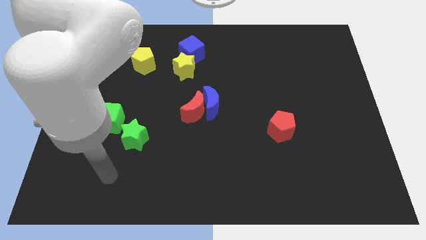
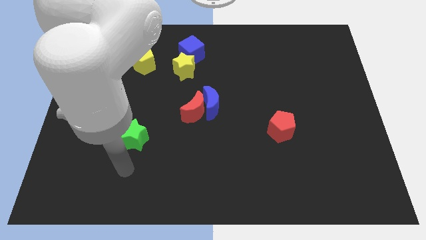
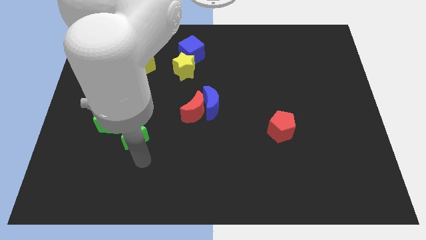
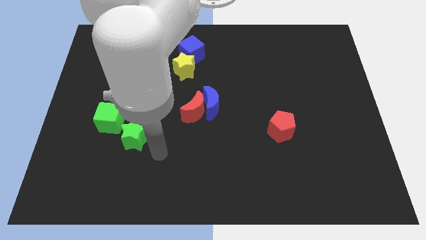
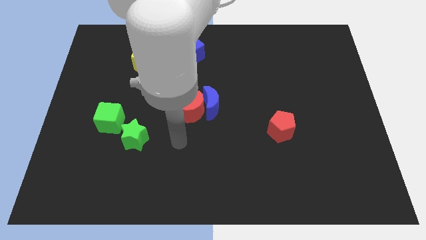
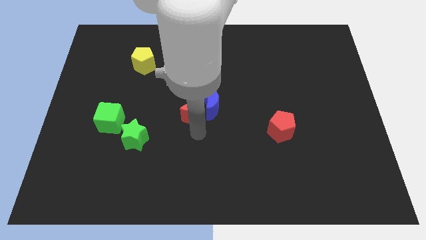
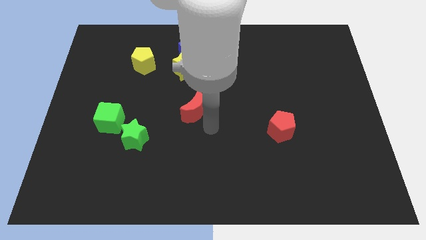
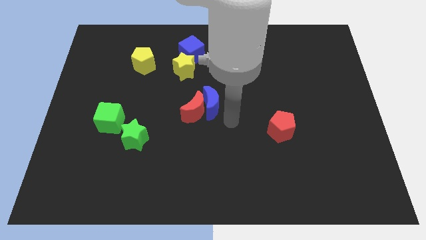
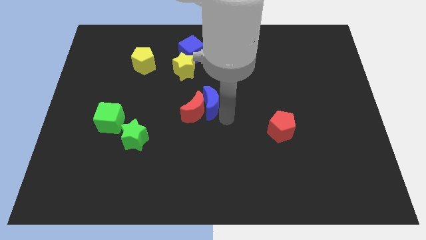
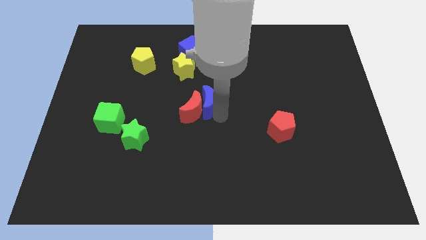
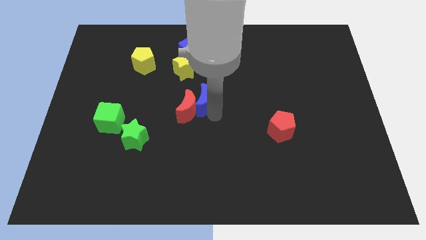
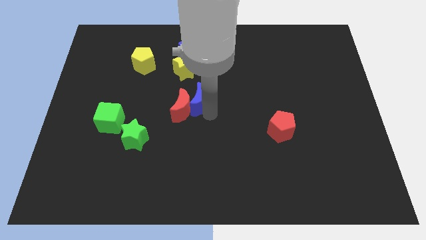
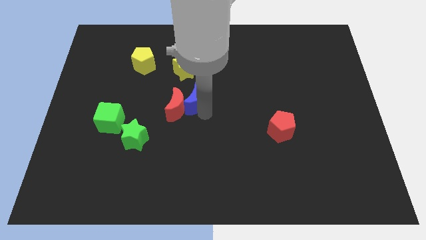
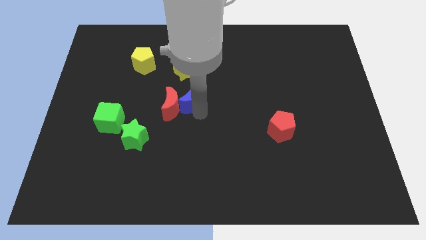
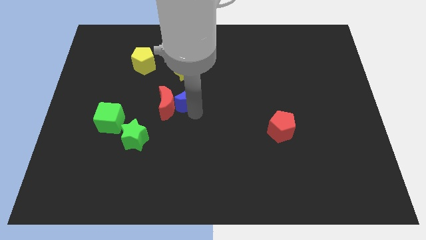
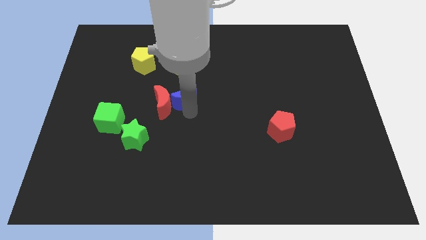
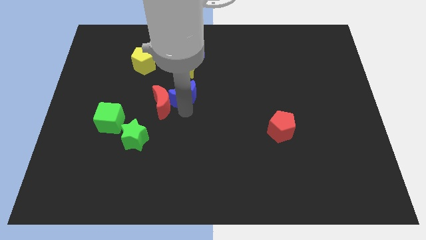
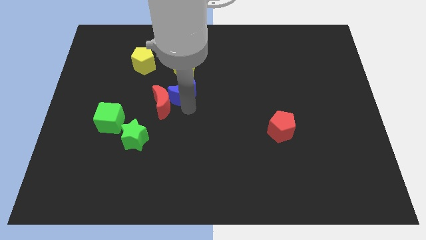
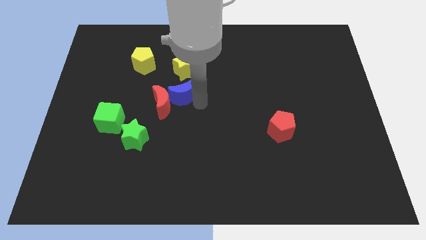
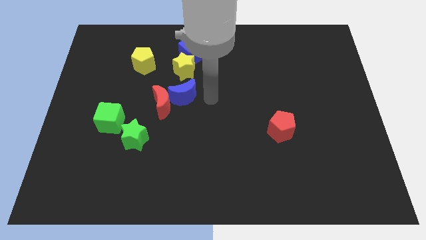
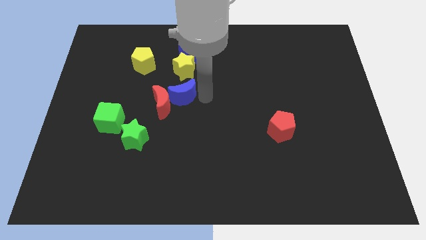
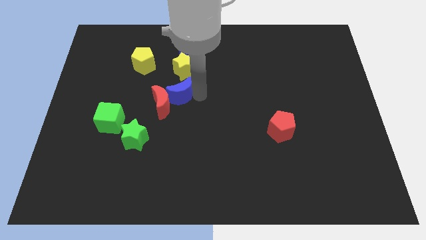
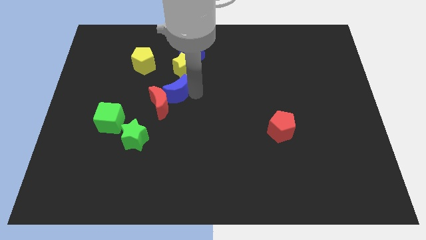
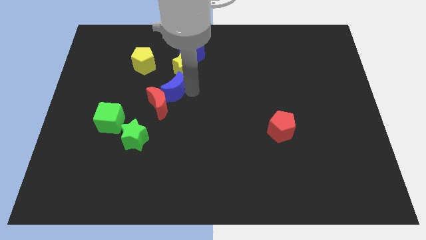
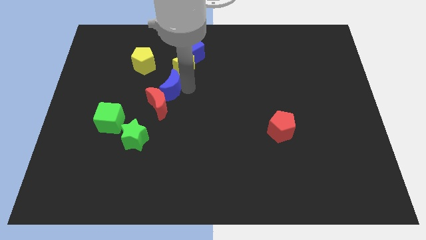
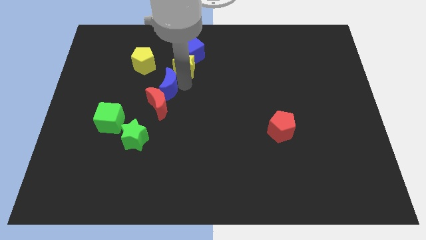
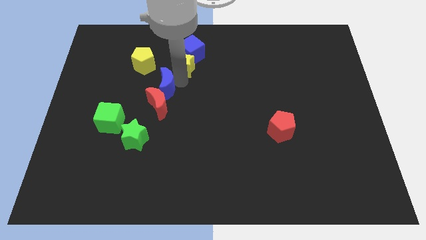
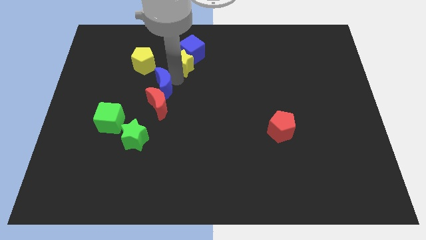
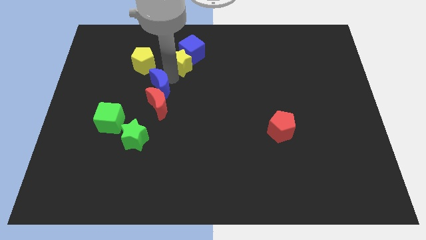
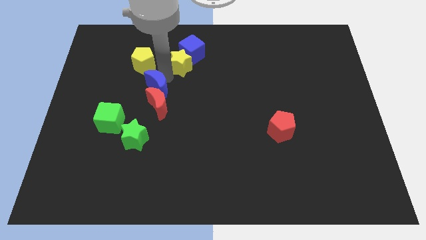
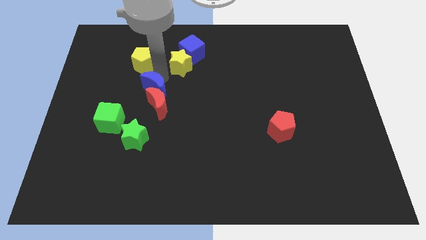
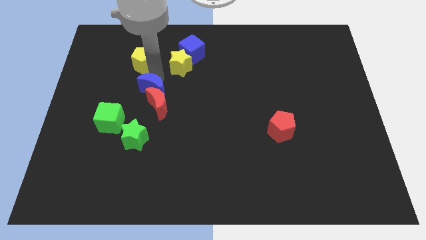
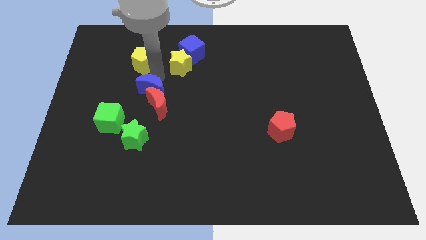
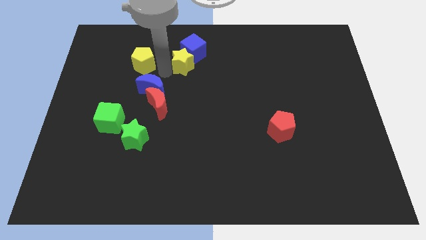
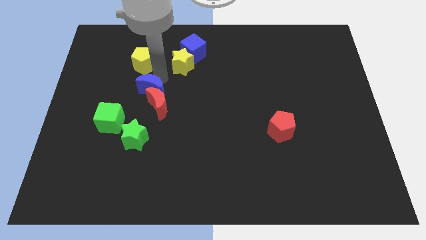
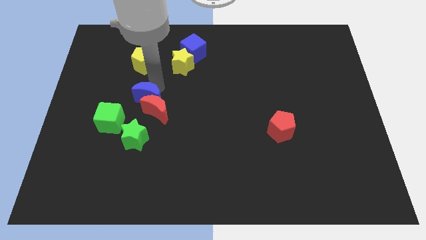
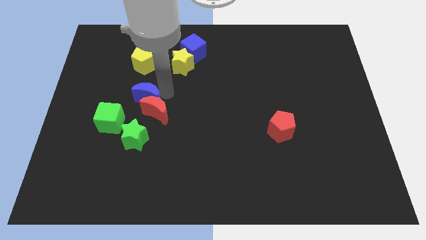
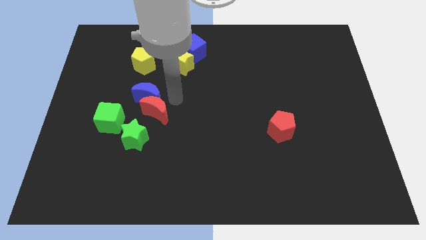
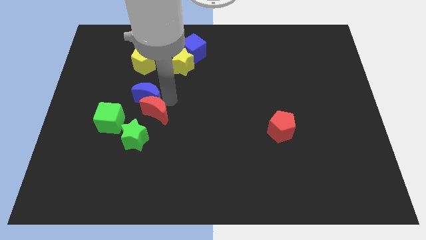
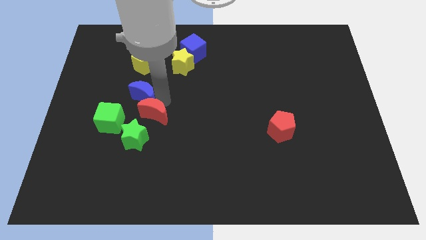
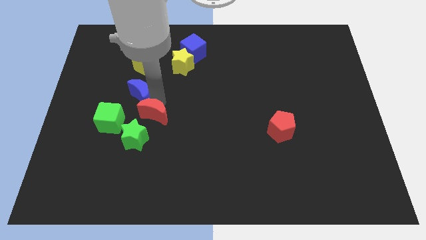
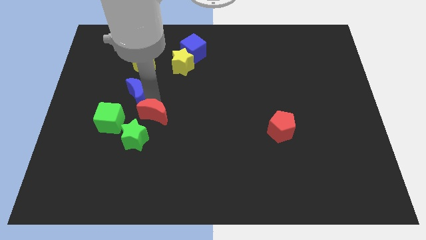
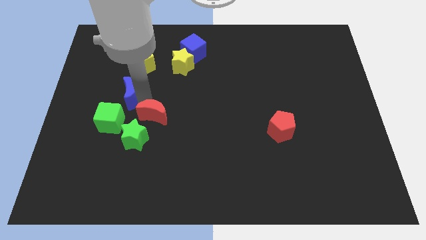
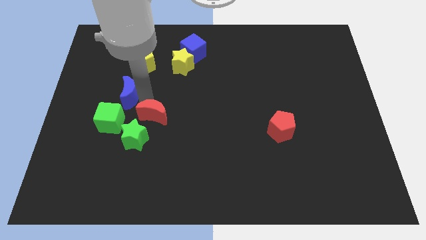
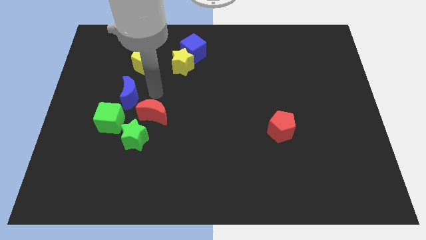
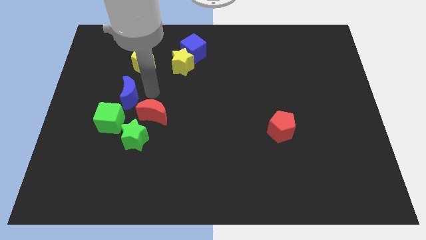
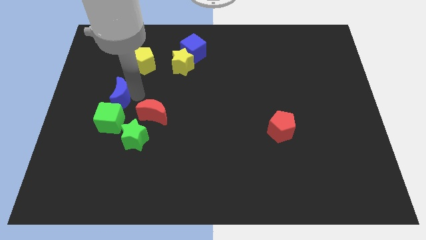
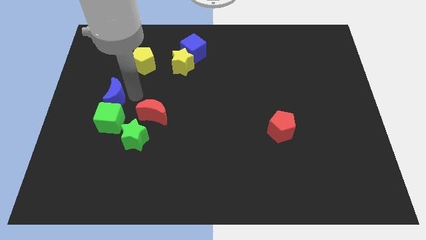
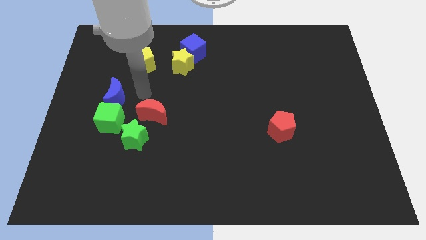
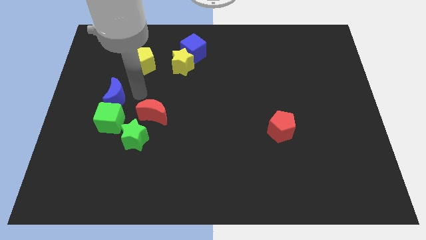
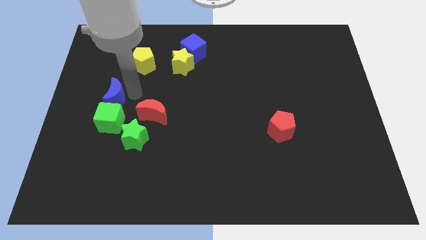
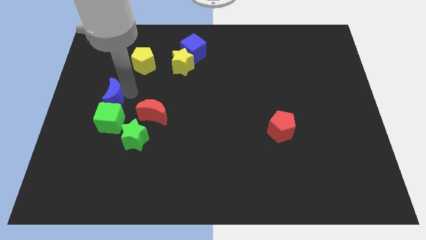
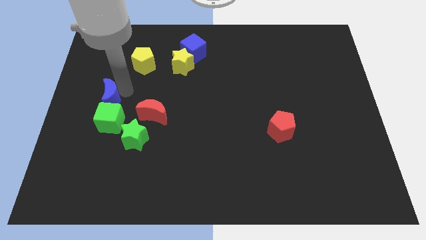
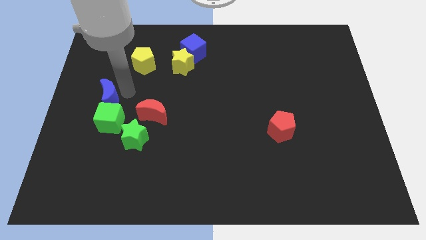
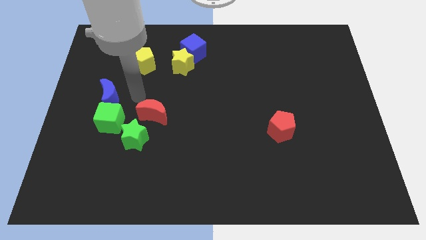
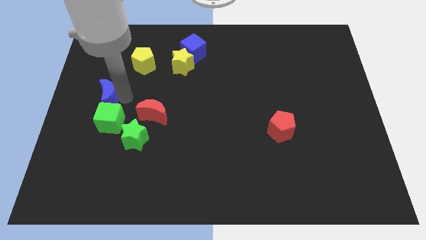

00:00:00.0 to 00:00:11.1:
push the blue moon to the left side of the board

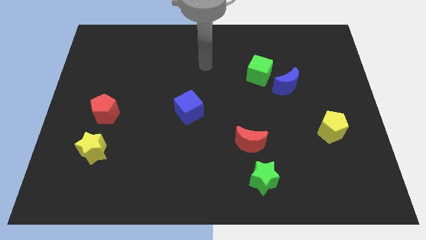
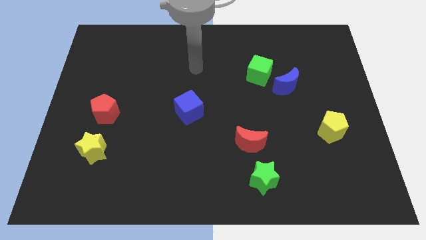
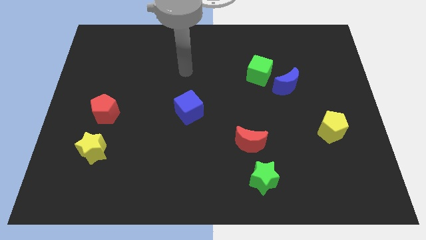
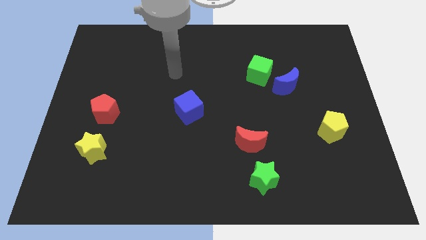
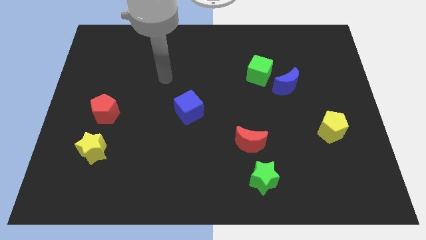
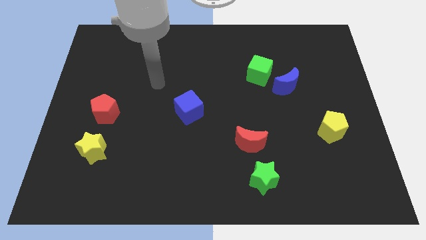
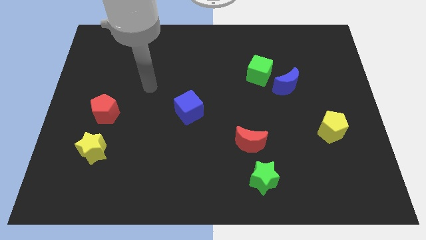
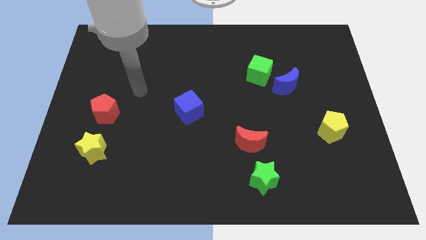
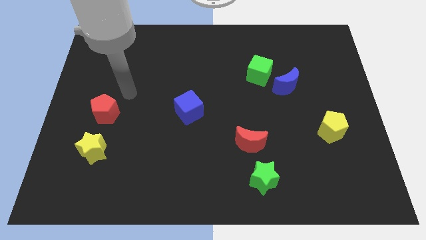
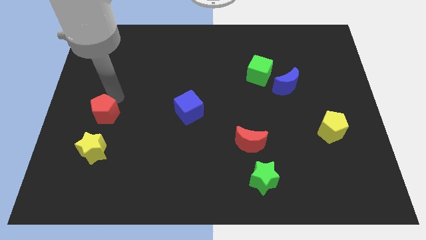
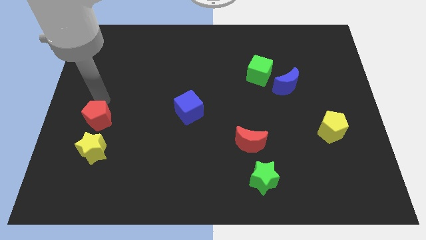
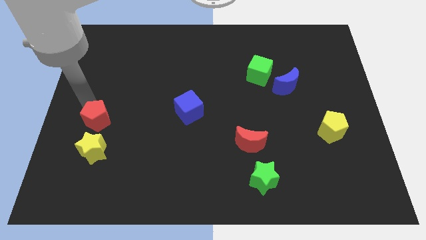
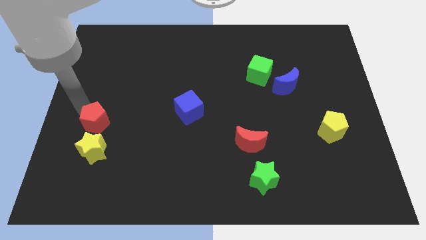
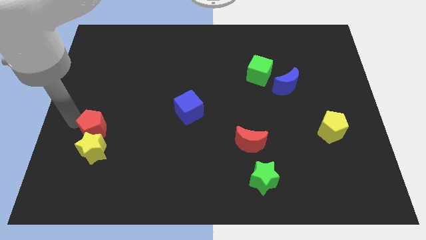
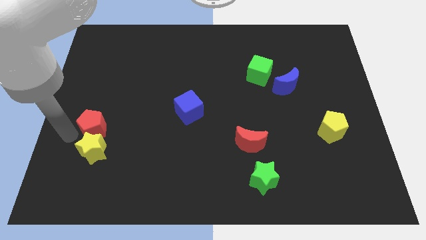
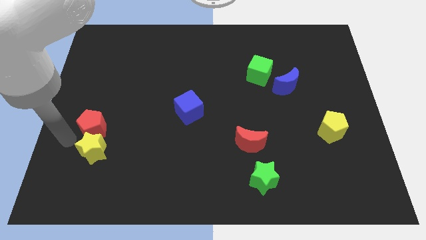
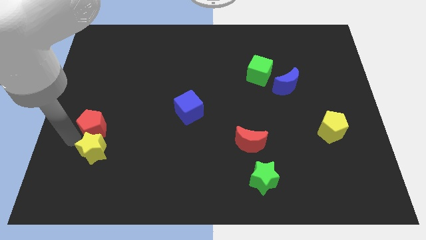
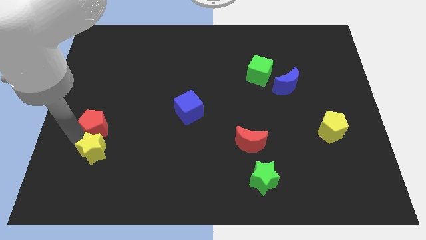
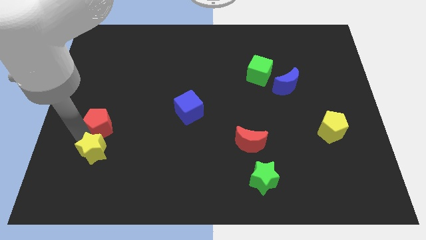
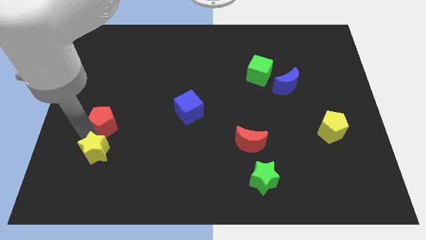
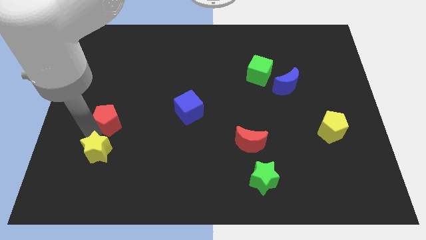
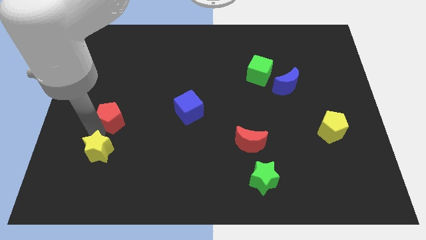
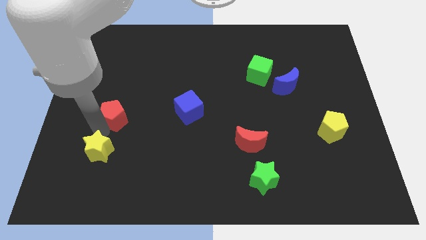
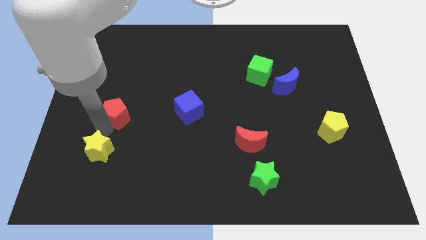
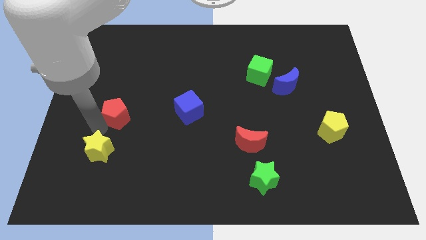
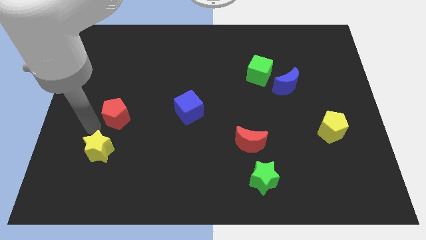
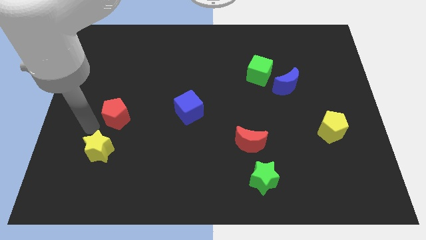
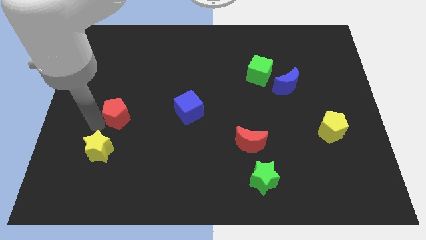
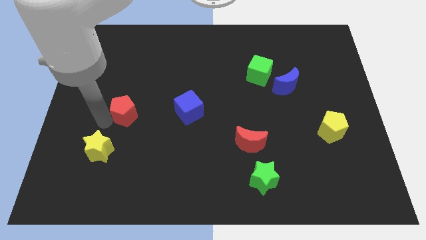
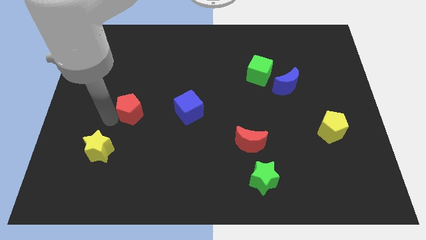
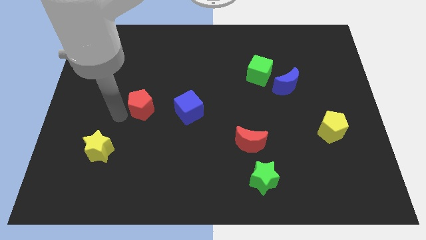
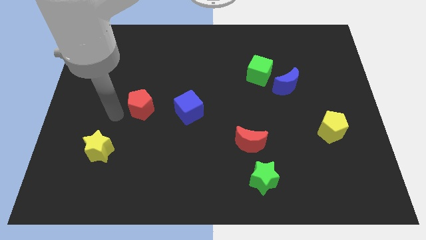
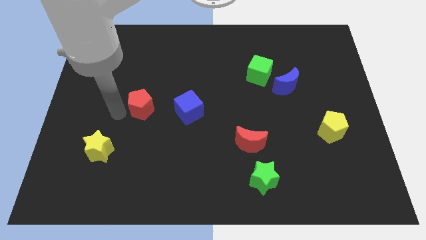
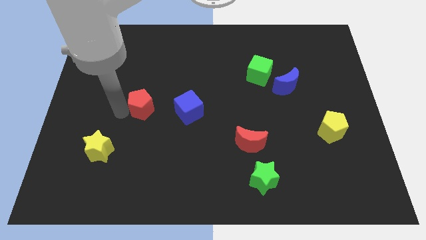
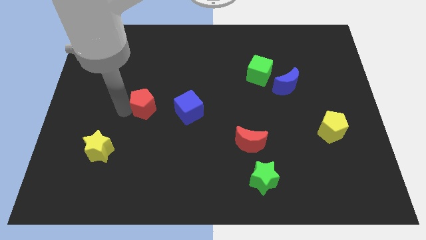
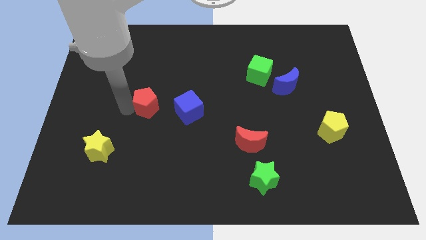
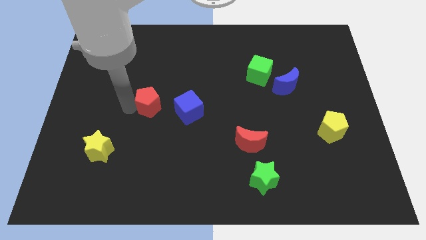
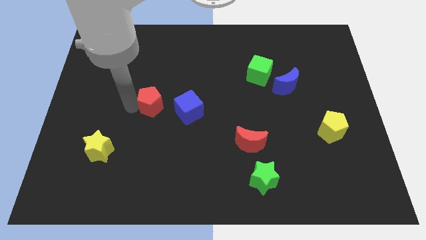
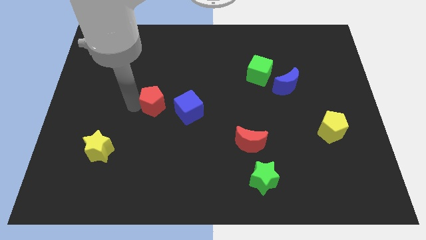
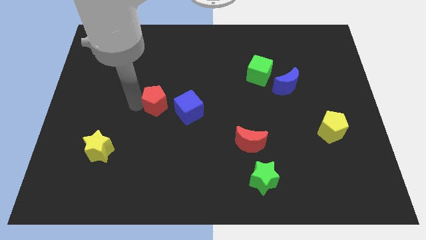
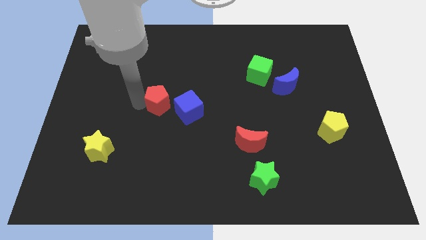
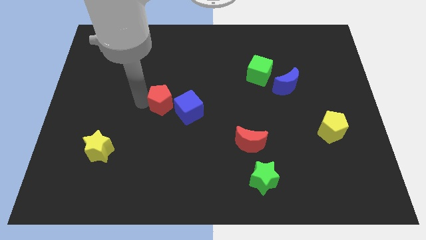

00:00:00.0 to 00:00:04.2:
slide the red pentagon to the center
